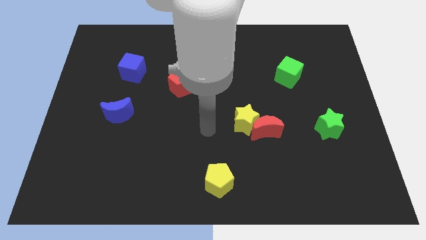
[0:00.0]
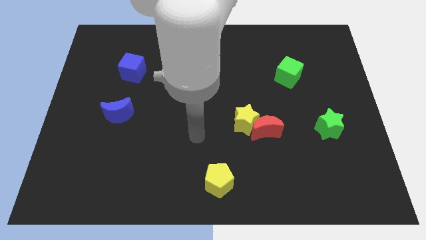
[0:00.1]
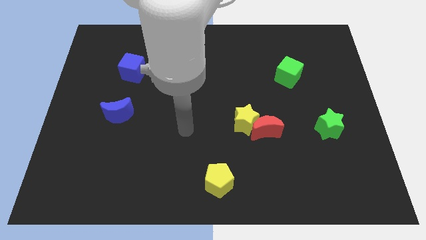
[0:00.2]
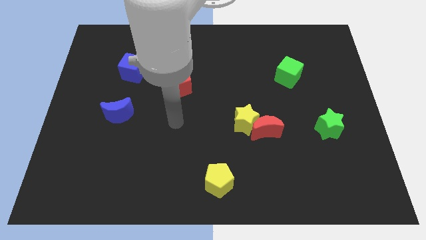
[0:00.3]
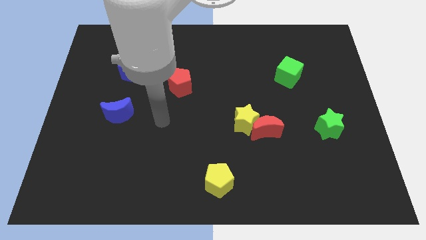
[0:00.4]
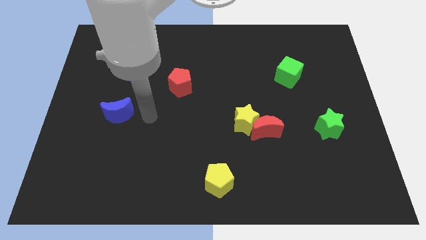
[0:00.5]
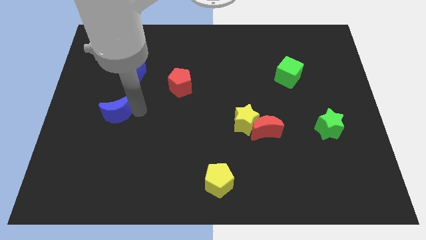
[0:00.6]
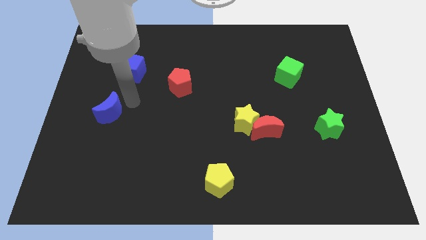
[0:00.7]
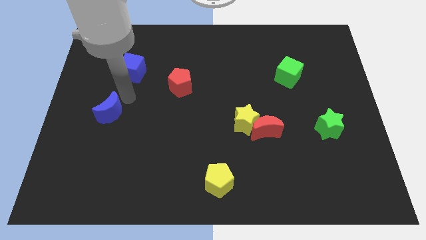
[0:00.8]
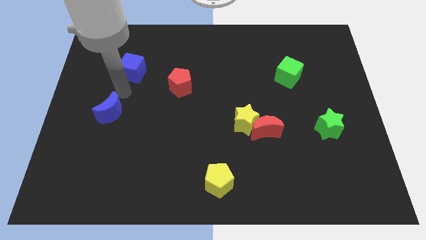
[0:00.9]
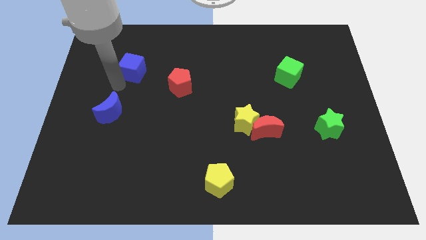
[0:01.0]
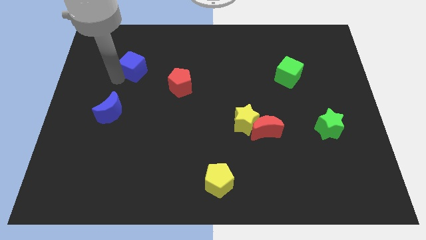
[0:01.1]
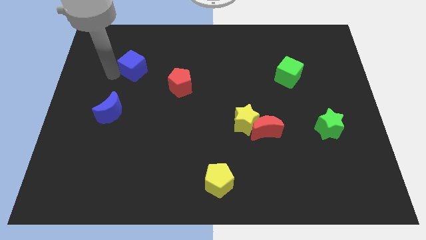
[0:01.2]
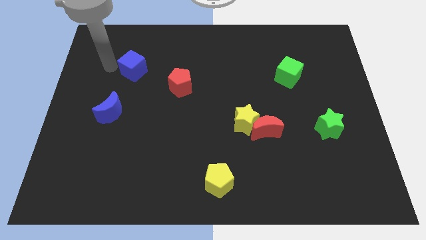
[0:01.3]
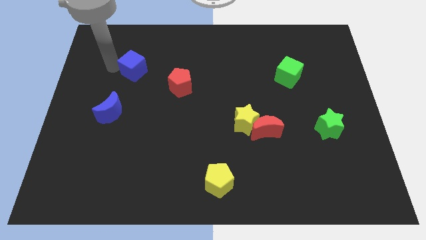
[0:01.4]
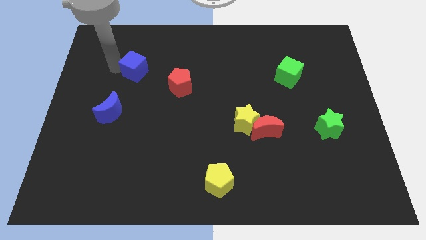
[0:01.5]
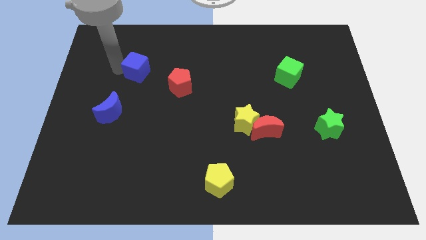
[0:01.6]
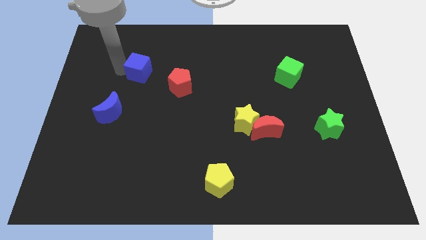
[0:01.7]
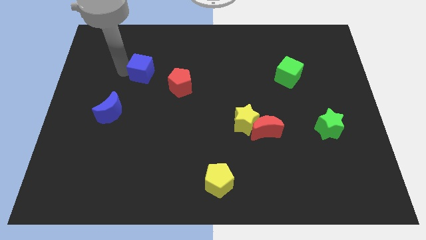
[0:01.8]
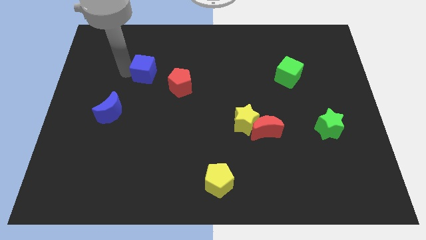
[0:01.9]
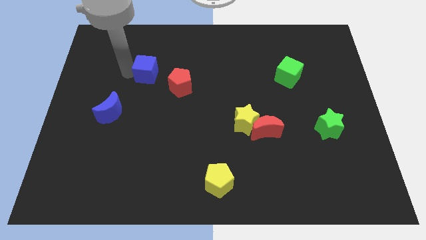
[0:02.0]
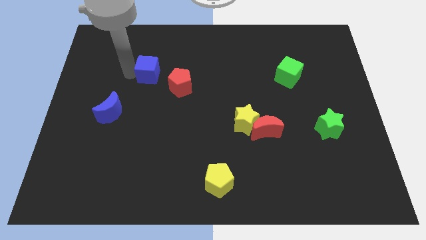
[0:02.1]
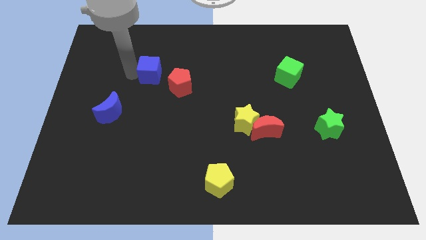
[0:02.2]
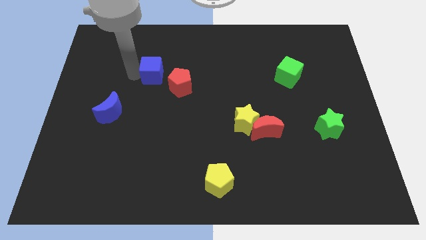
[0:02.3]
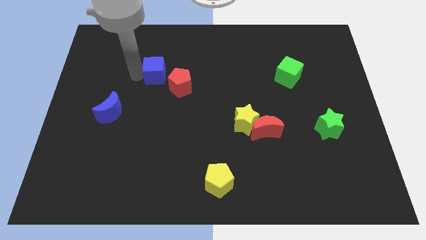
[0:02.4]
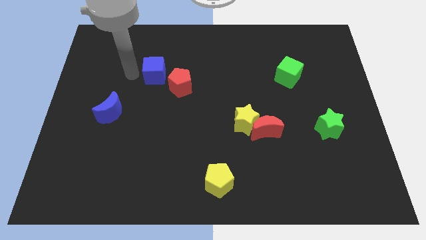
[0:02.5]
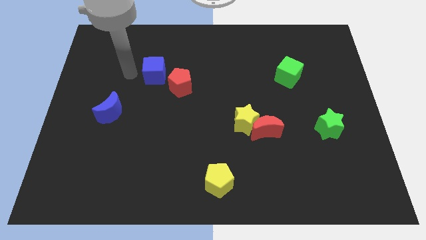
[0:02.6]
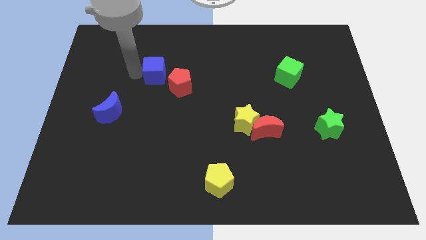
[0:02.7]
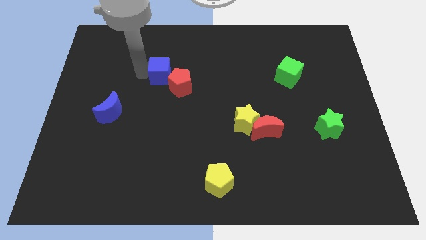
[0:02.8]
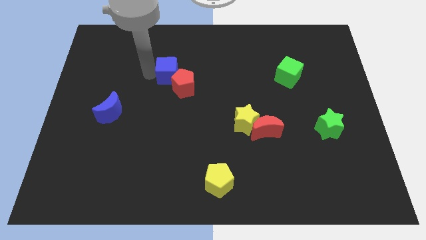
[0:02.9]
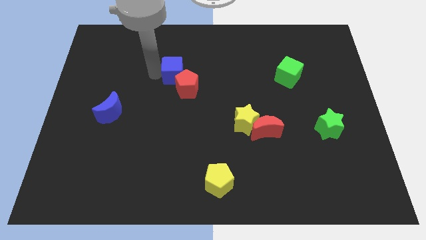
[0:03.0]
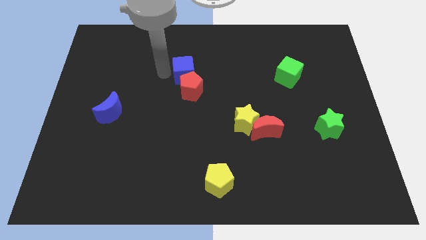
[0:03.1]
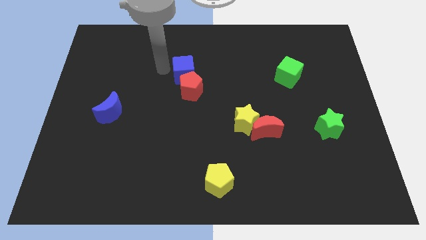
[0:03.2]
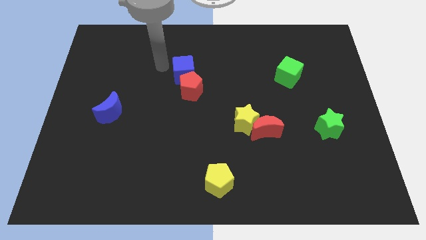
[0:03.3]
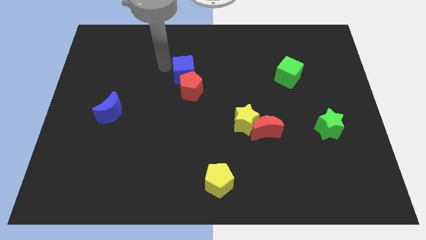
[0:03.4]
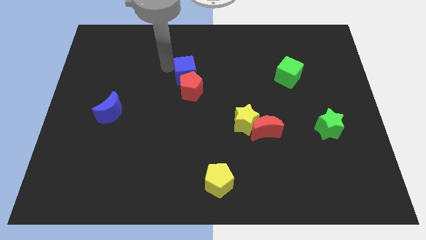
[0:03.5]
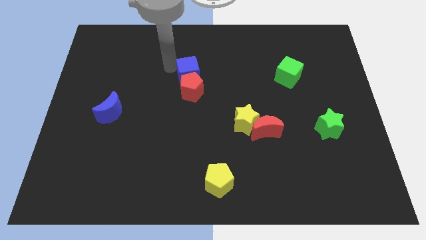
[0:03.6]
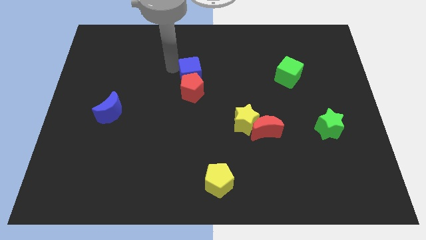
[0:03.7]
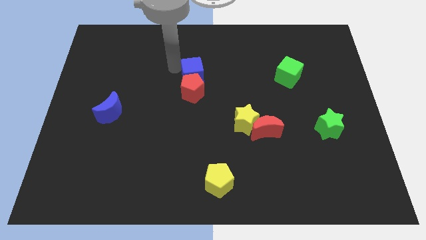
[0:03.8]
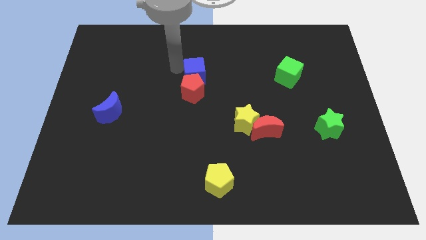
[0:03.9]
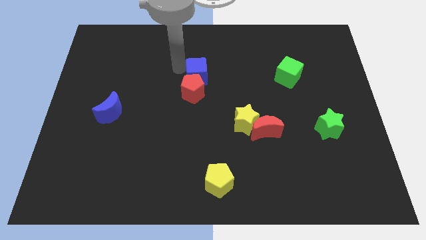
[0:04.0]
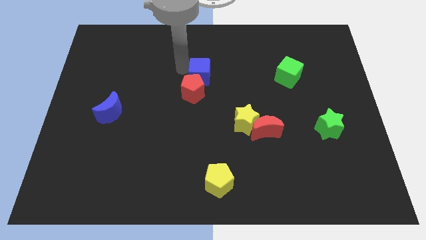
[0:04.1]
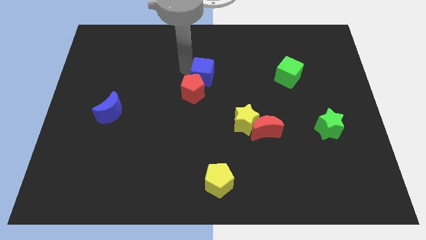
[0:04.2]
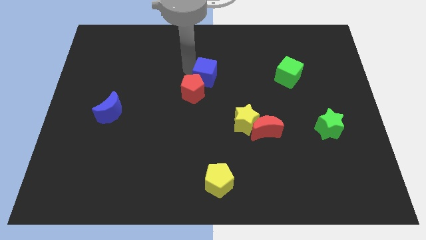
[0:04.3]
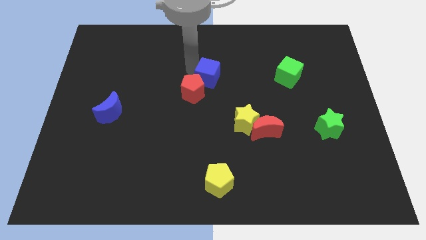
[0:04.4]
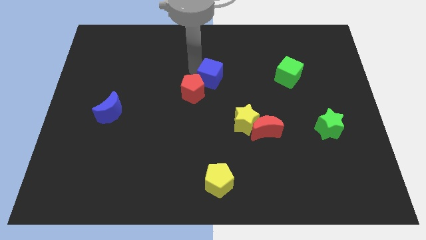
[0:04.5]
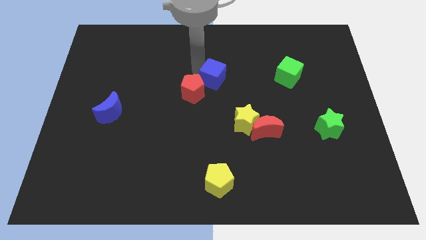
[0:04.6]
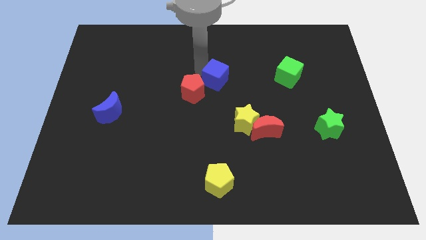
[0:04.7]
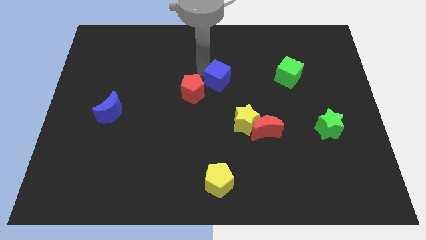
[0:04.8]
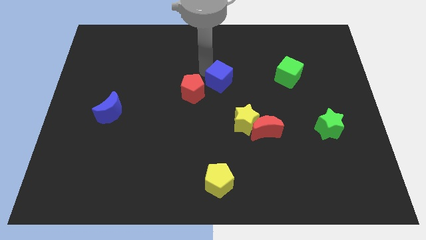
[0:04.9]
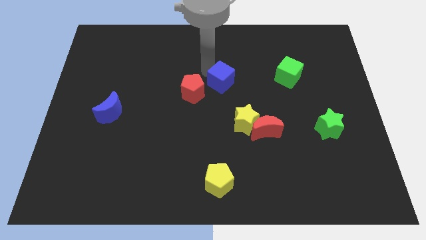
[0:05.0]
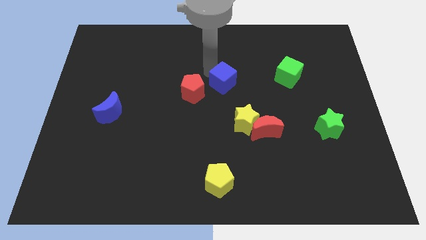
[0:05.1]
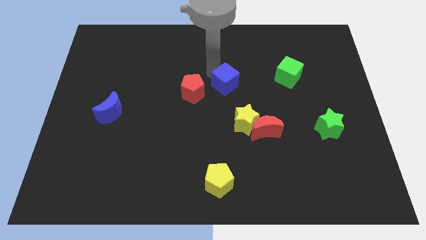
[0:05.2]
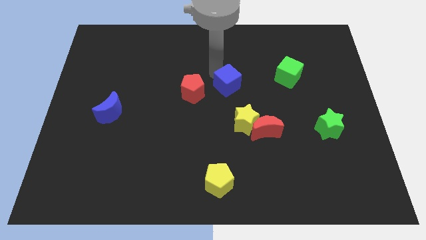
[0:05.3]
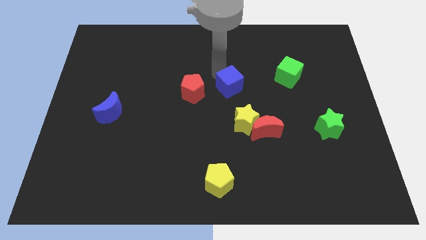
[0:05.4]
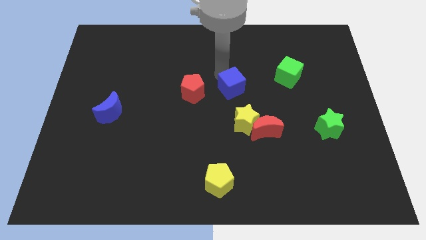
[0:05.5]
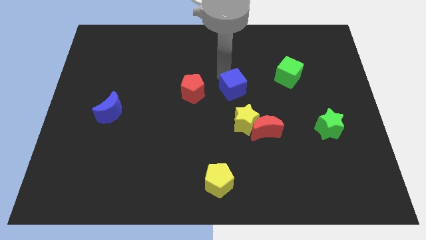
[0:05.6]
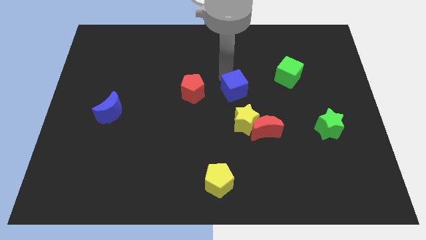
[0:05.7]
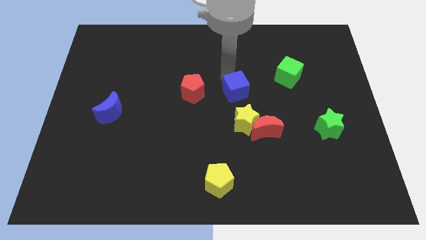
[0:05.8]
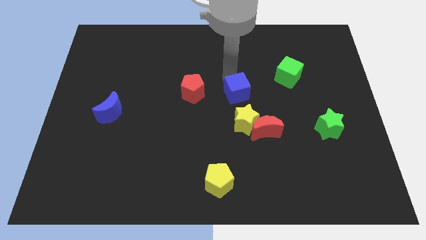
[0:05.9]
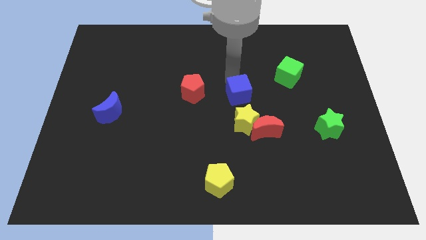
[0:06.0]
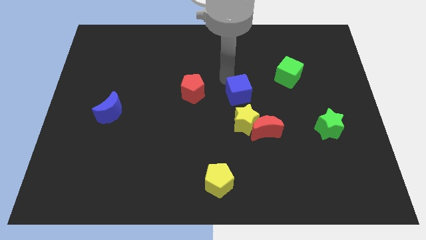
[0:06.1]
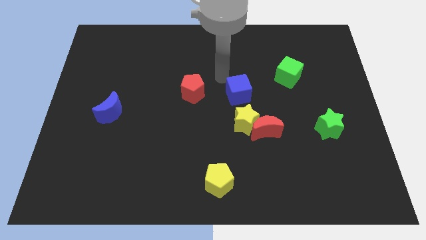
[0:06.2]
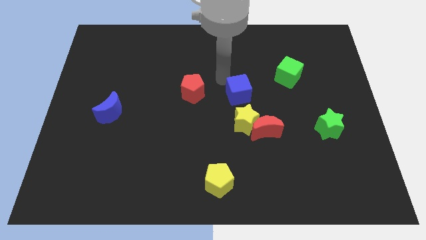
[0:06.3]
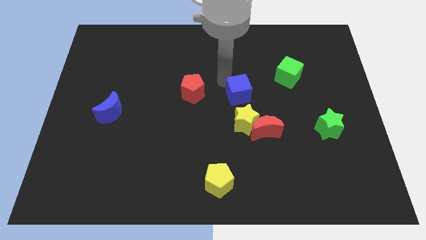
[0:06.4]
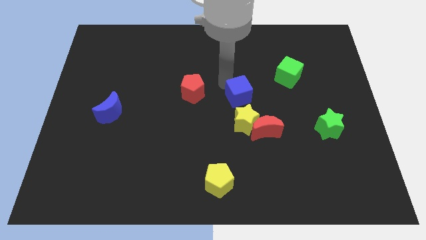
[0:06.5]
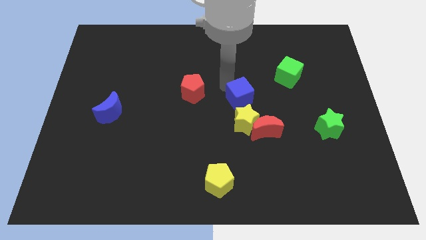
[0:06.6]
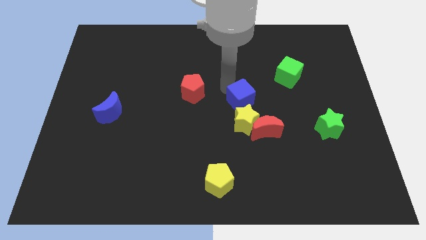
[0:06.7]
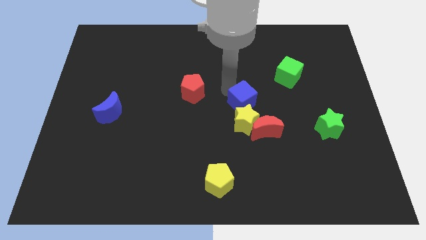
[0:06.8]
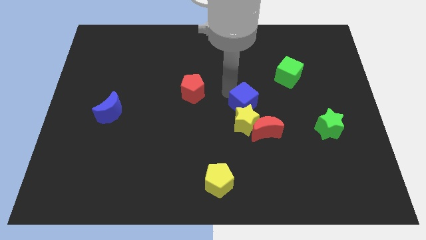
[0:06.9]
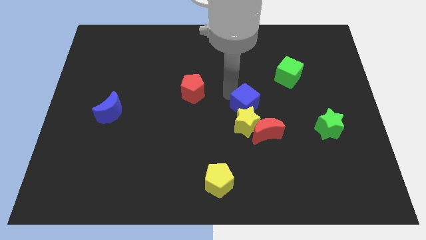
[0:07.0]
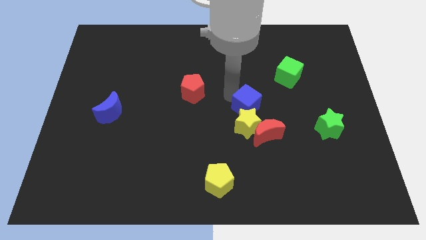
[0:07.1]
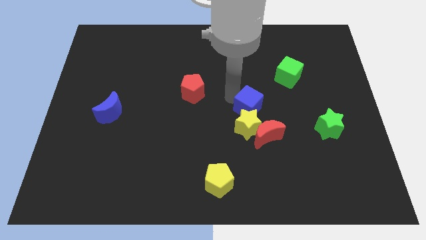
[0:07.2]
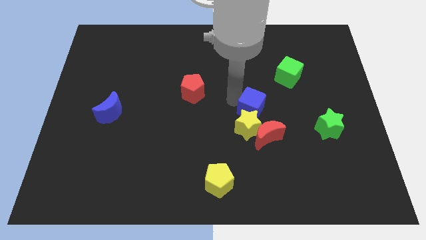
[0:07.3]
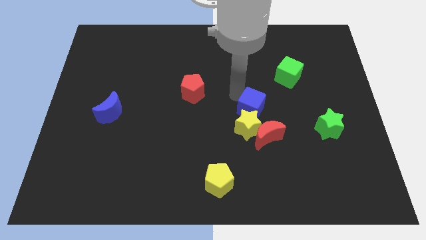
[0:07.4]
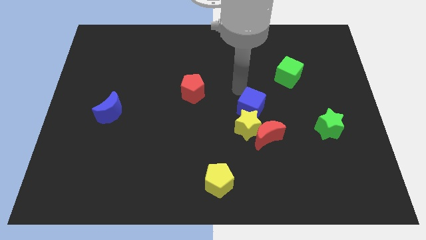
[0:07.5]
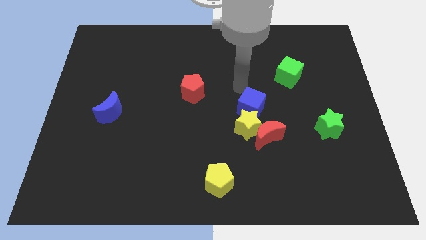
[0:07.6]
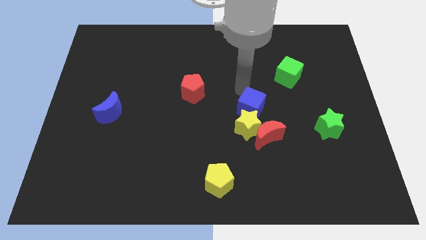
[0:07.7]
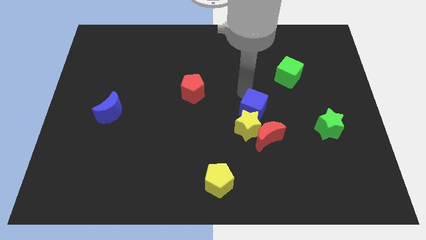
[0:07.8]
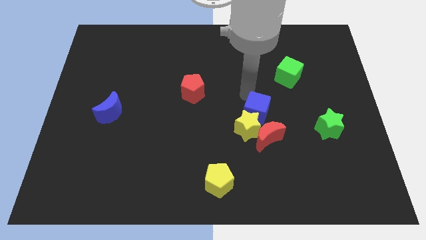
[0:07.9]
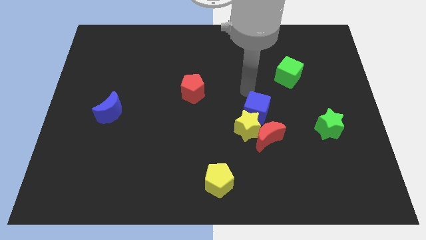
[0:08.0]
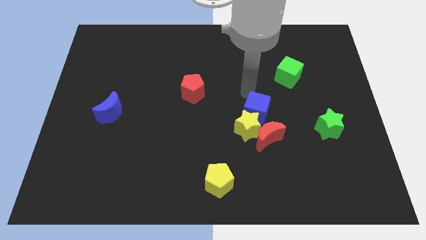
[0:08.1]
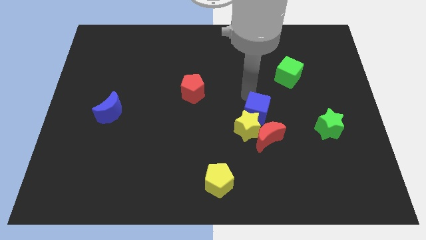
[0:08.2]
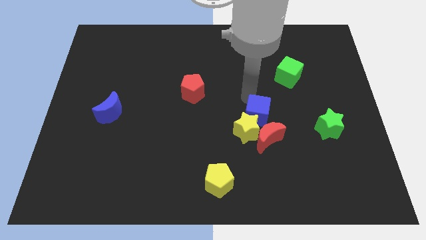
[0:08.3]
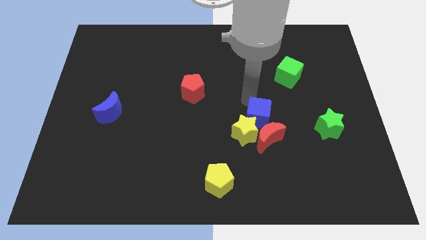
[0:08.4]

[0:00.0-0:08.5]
push the blue cube to the red moon
